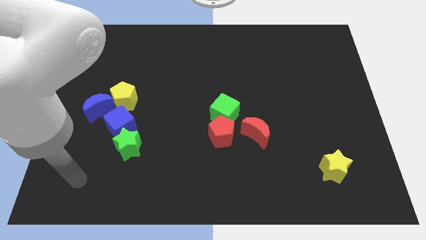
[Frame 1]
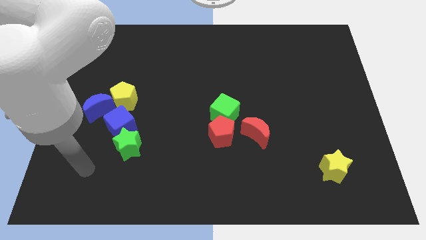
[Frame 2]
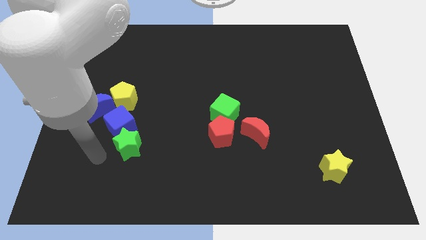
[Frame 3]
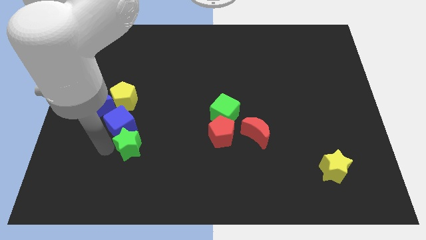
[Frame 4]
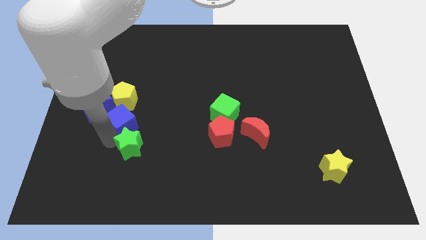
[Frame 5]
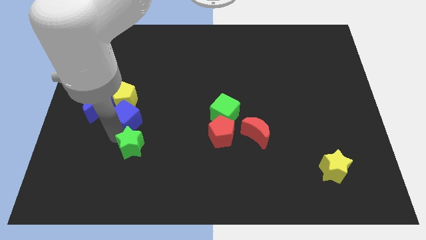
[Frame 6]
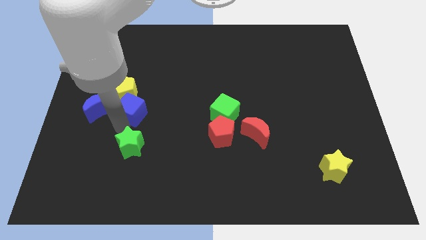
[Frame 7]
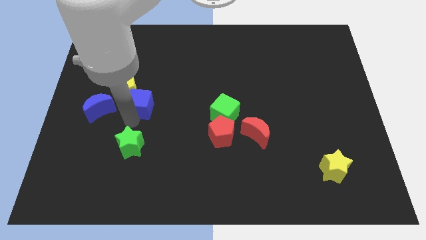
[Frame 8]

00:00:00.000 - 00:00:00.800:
pull the green star apart from the blue cube

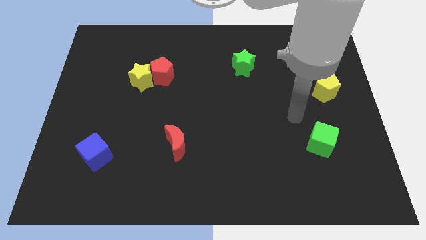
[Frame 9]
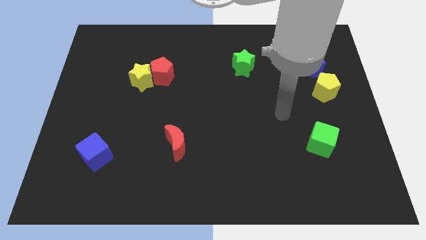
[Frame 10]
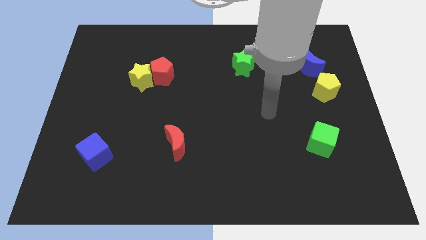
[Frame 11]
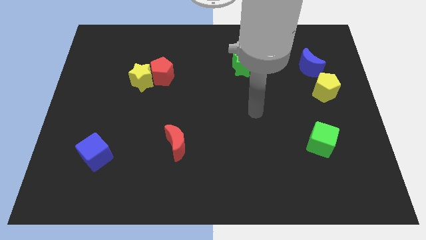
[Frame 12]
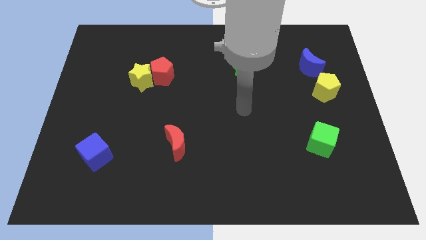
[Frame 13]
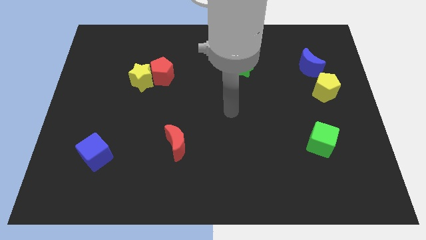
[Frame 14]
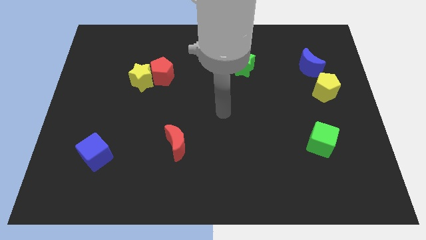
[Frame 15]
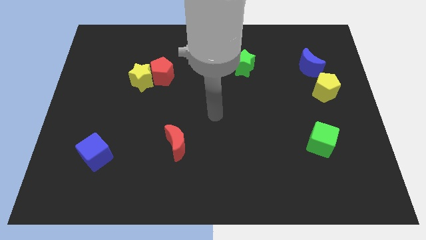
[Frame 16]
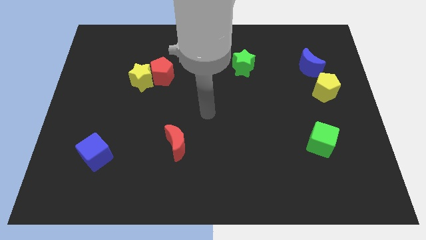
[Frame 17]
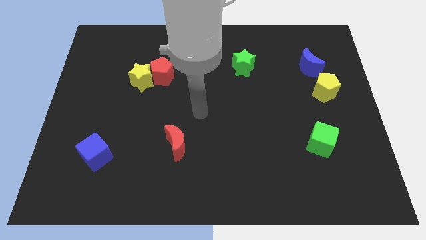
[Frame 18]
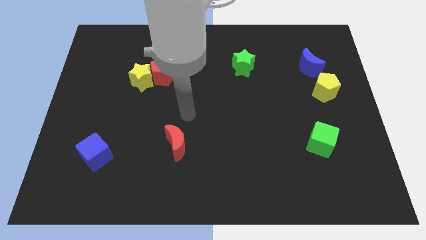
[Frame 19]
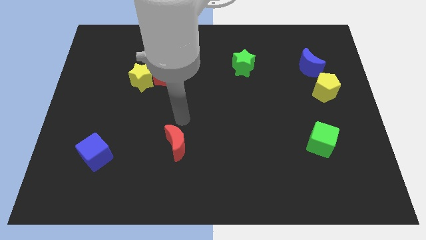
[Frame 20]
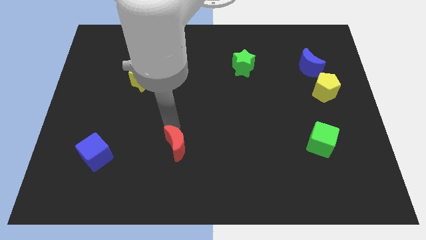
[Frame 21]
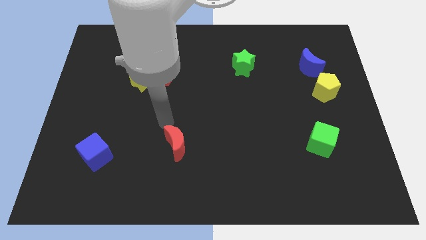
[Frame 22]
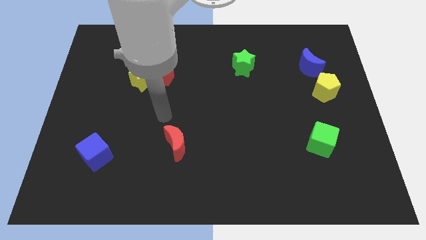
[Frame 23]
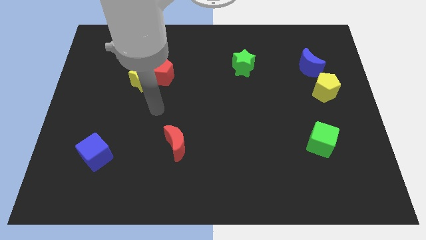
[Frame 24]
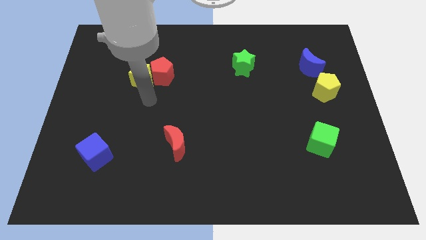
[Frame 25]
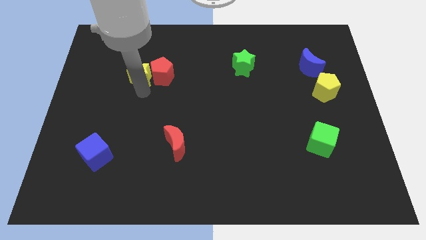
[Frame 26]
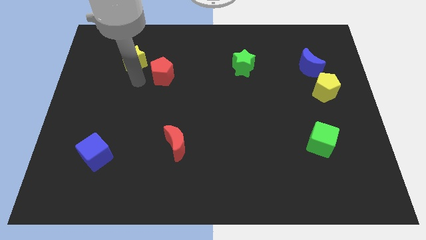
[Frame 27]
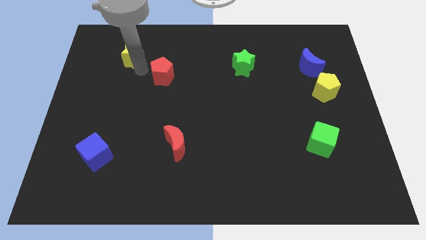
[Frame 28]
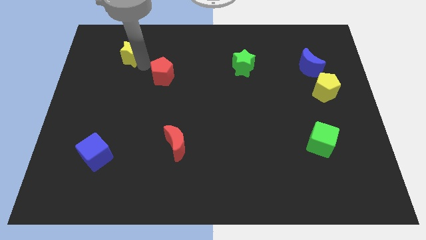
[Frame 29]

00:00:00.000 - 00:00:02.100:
pull the red pentagon apart from the yellow star

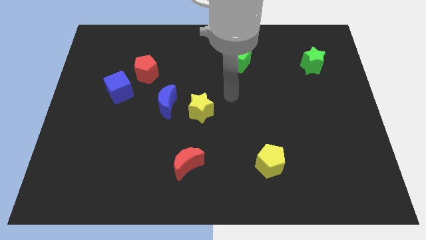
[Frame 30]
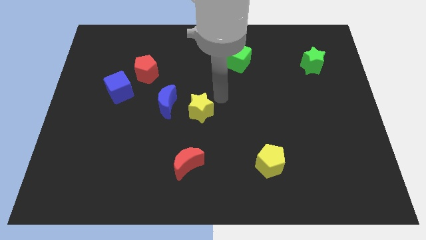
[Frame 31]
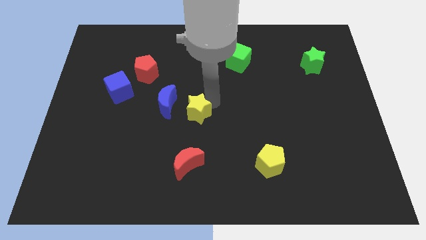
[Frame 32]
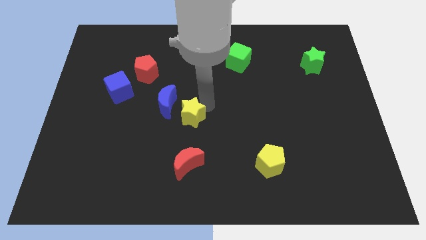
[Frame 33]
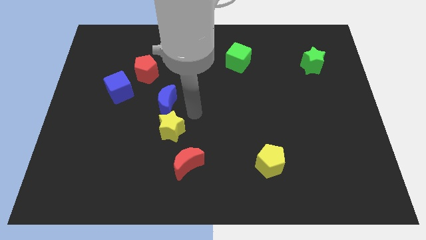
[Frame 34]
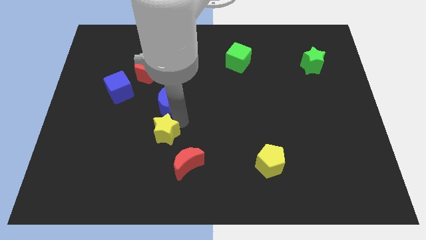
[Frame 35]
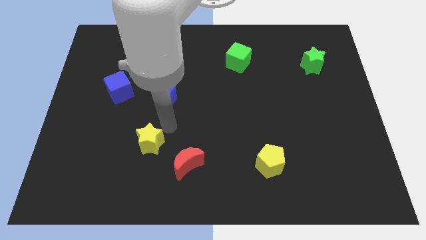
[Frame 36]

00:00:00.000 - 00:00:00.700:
move the blue moon away from the yellow star

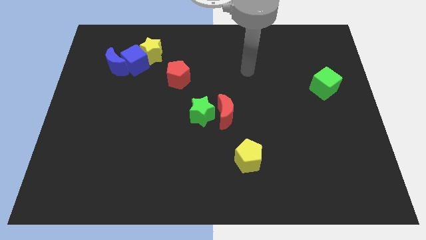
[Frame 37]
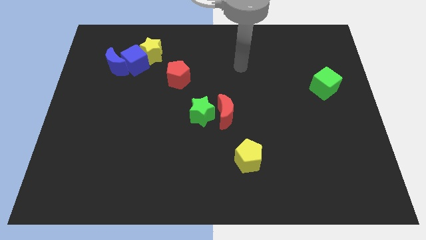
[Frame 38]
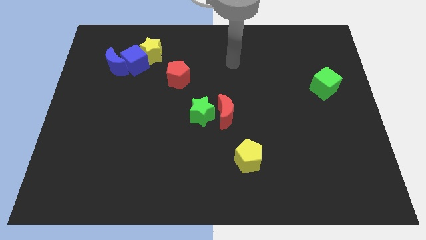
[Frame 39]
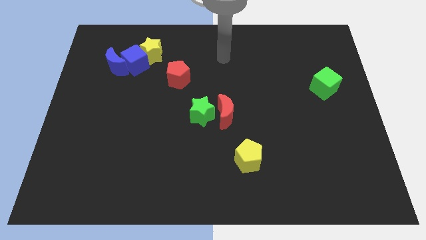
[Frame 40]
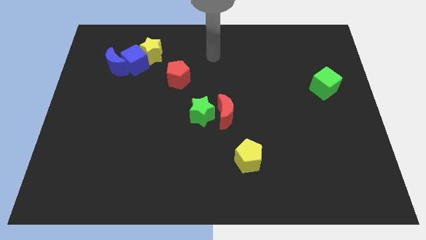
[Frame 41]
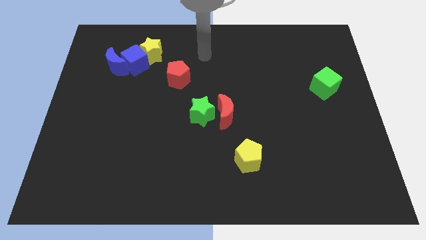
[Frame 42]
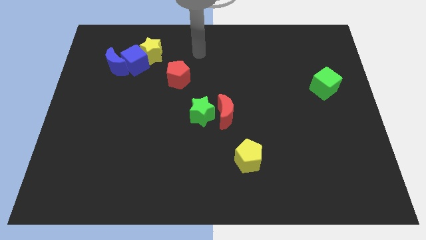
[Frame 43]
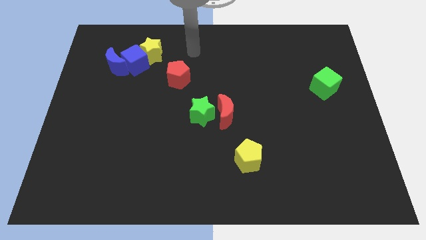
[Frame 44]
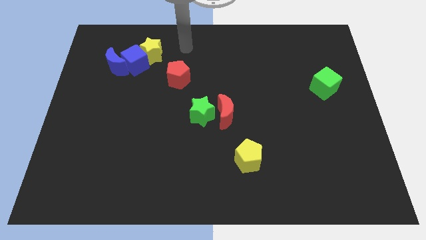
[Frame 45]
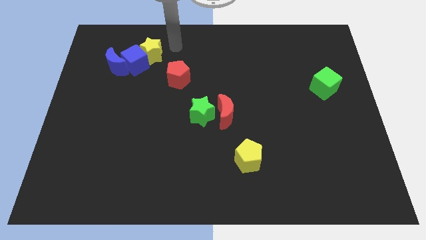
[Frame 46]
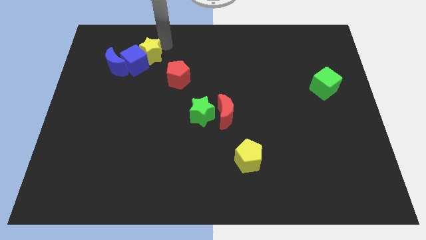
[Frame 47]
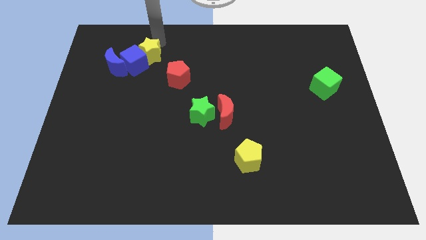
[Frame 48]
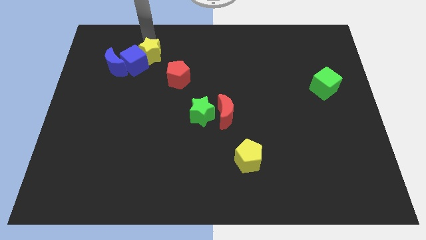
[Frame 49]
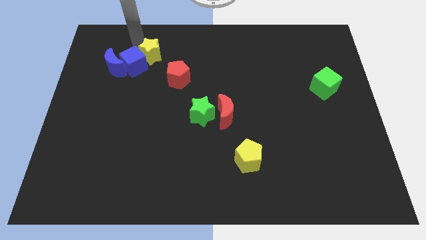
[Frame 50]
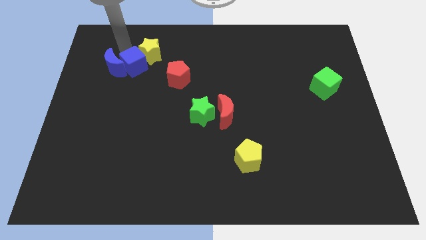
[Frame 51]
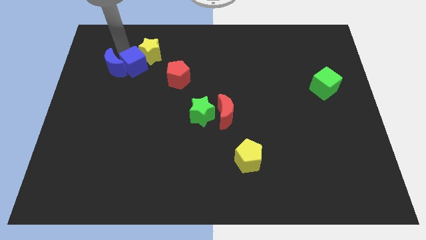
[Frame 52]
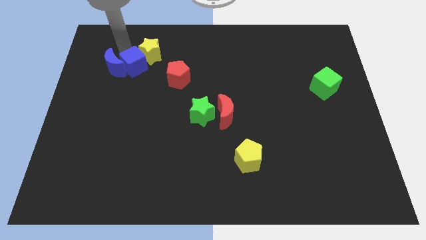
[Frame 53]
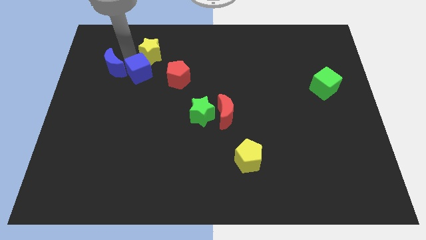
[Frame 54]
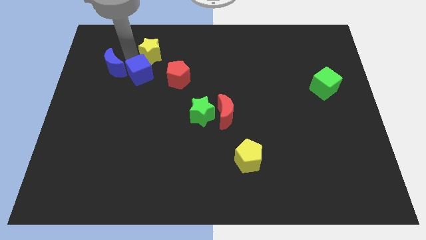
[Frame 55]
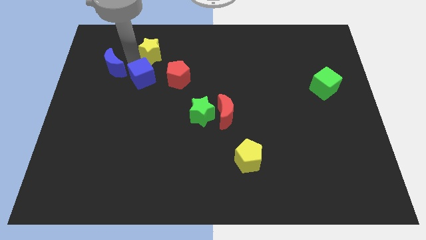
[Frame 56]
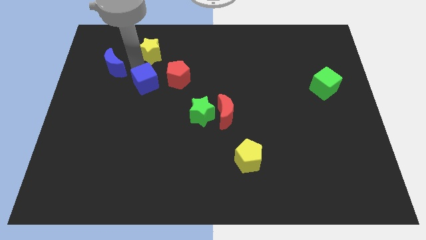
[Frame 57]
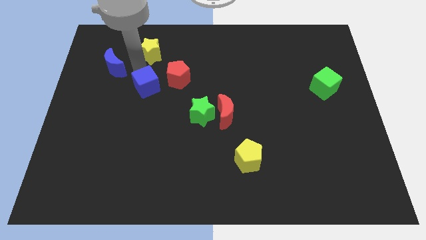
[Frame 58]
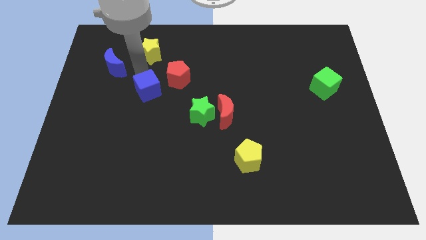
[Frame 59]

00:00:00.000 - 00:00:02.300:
separate the blue cube from the blue moon and yellow star

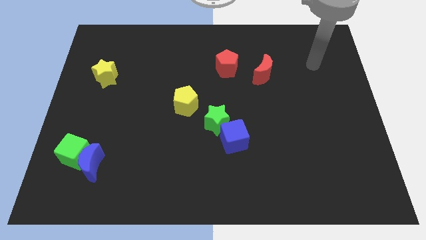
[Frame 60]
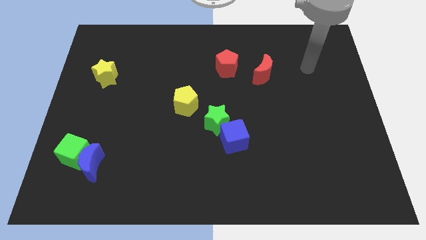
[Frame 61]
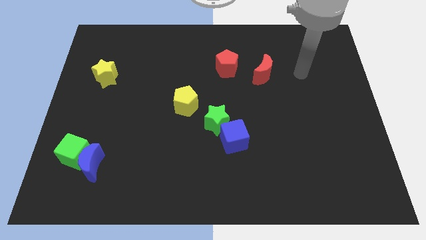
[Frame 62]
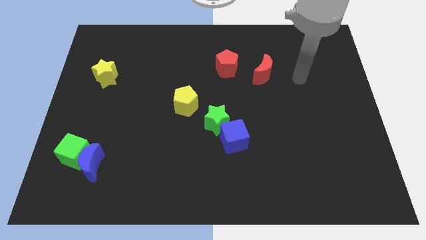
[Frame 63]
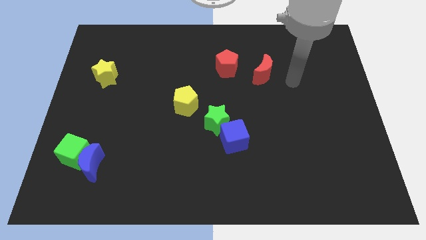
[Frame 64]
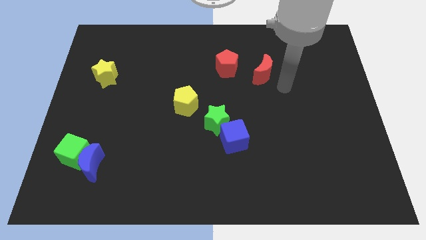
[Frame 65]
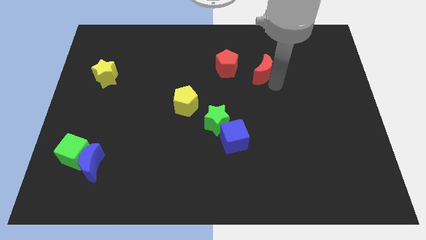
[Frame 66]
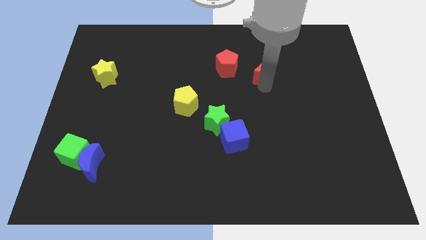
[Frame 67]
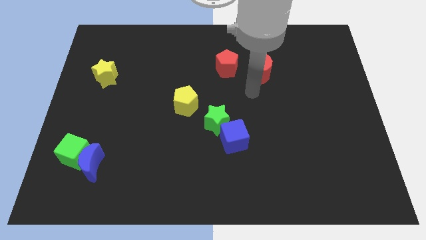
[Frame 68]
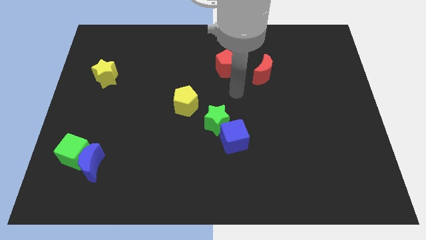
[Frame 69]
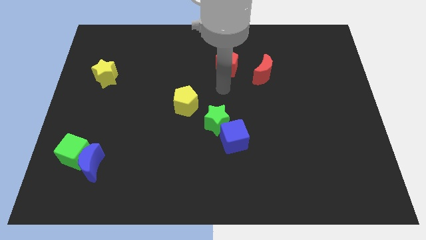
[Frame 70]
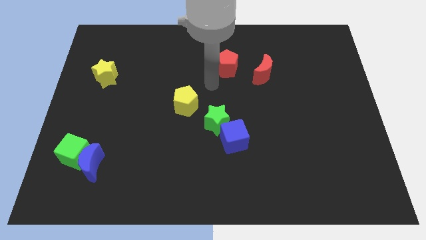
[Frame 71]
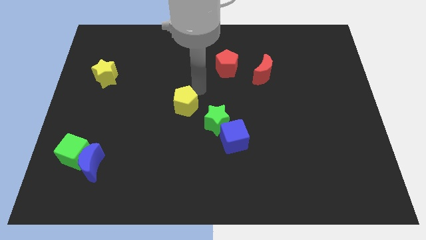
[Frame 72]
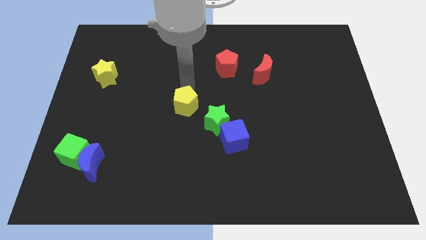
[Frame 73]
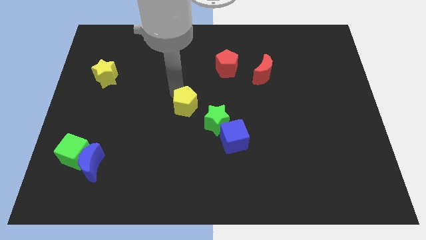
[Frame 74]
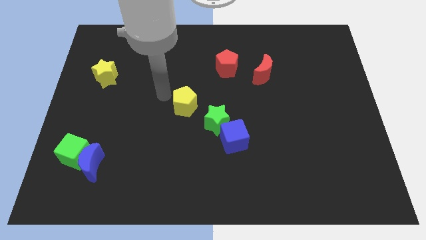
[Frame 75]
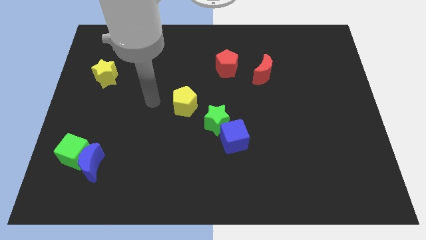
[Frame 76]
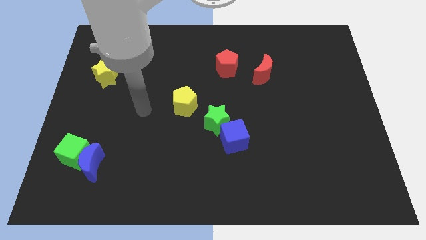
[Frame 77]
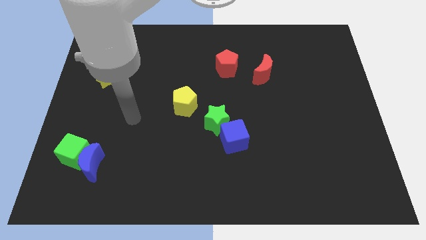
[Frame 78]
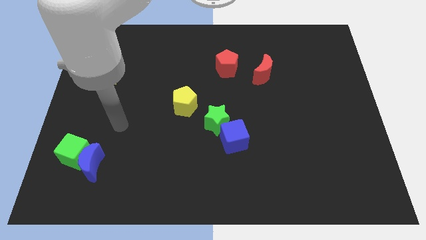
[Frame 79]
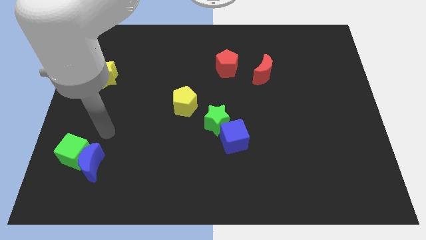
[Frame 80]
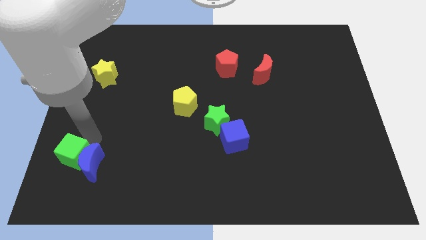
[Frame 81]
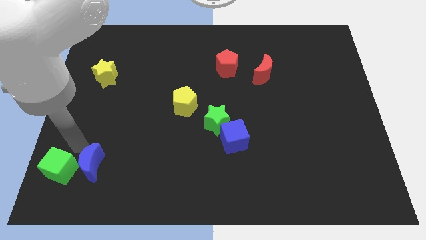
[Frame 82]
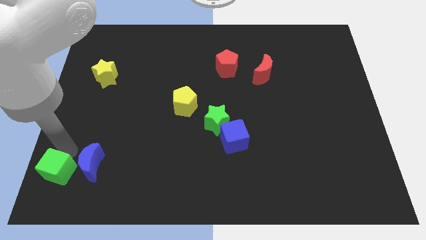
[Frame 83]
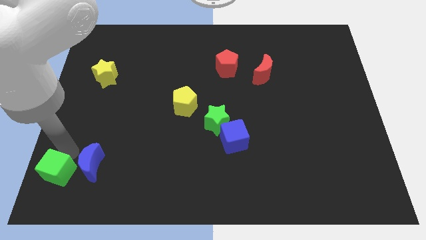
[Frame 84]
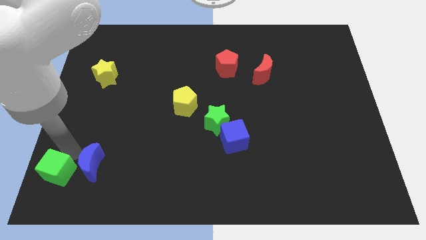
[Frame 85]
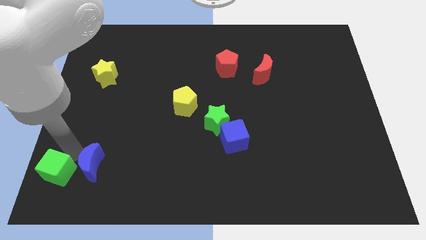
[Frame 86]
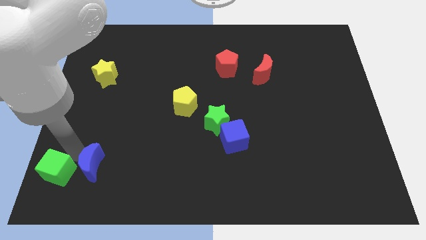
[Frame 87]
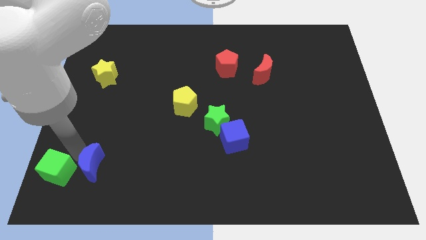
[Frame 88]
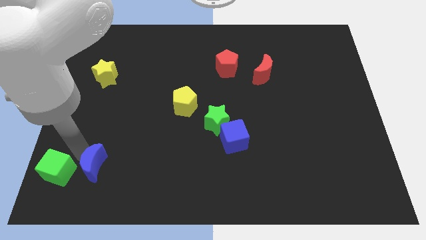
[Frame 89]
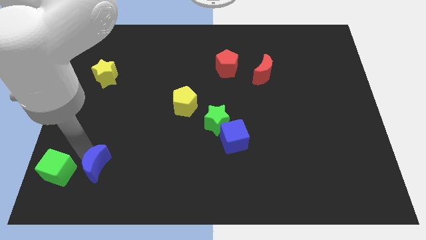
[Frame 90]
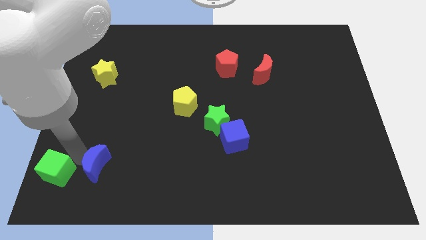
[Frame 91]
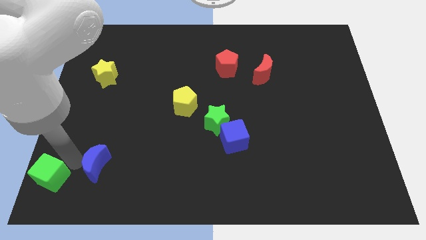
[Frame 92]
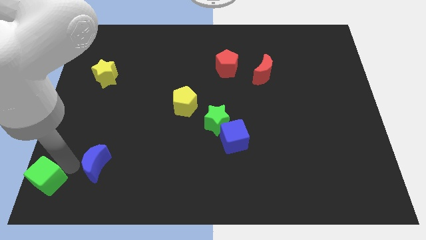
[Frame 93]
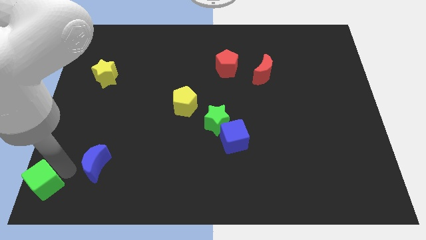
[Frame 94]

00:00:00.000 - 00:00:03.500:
pull the blue moon apart from the green cube

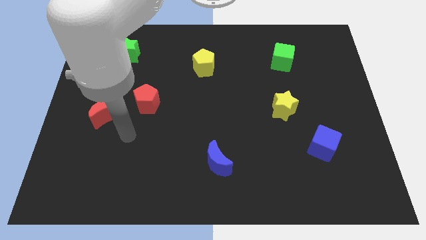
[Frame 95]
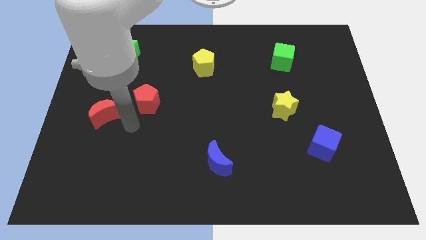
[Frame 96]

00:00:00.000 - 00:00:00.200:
separate the red moon from the red pentagon
